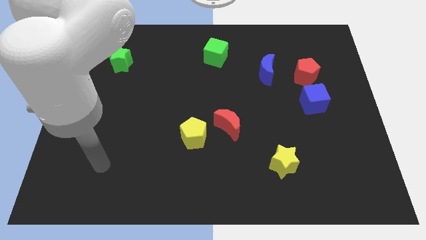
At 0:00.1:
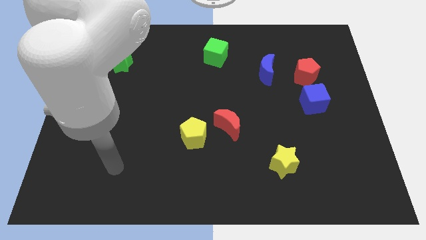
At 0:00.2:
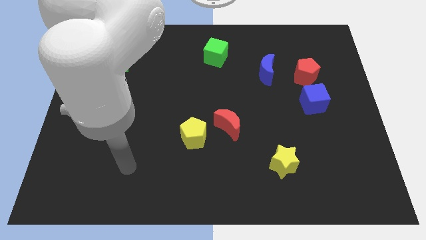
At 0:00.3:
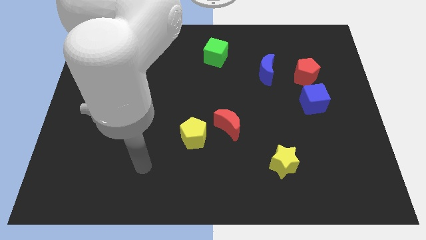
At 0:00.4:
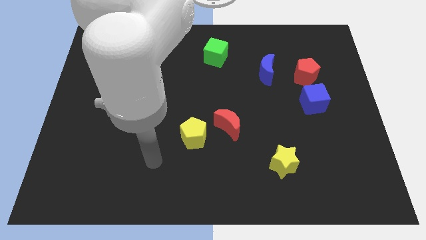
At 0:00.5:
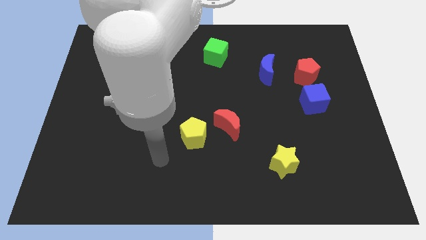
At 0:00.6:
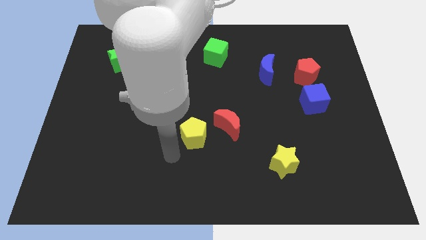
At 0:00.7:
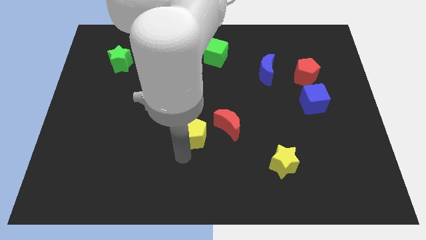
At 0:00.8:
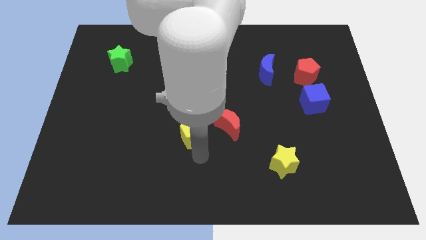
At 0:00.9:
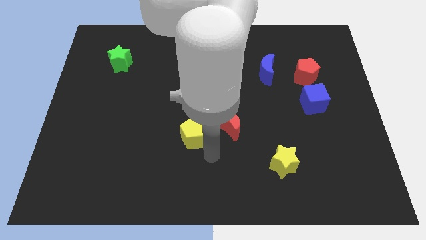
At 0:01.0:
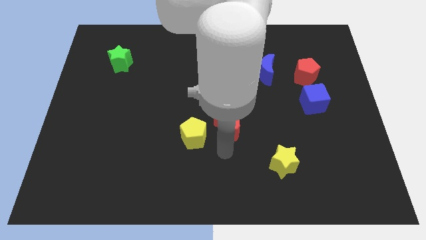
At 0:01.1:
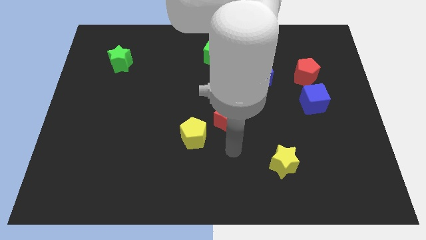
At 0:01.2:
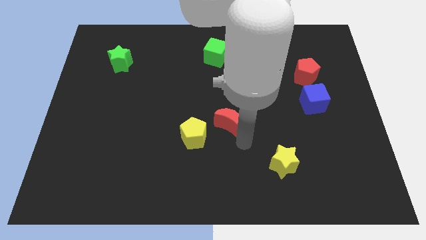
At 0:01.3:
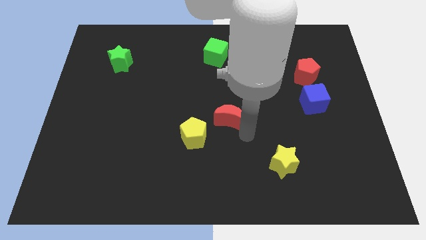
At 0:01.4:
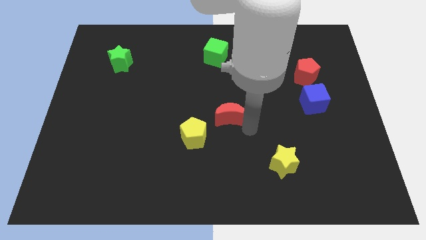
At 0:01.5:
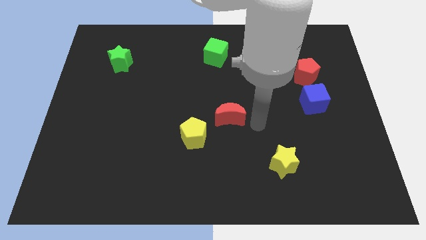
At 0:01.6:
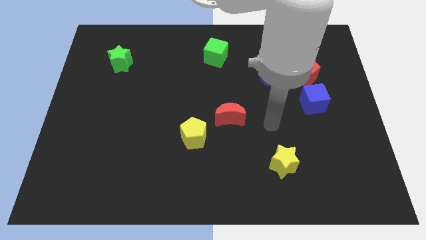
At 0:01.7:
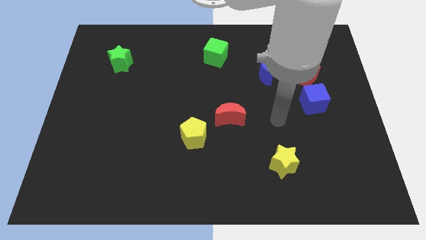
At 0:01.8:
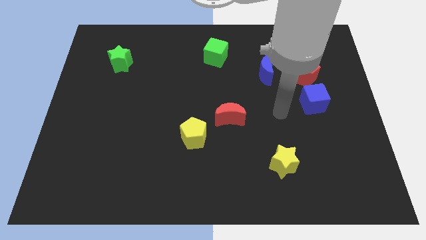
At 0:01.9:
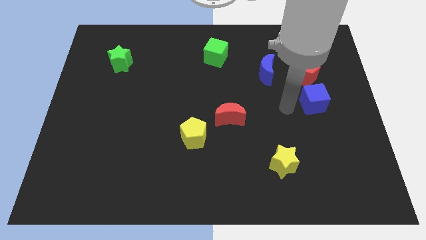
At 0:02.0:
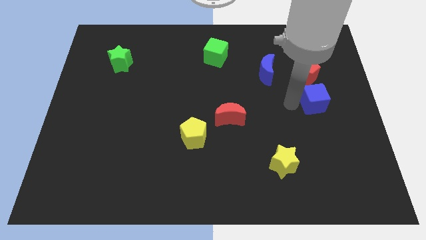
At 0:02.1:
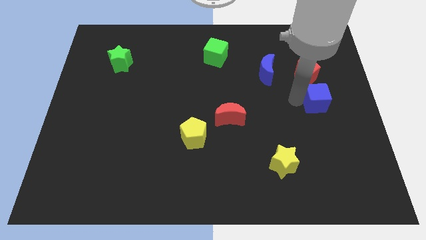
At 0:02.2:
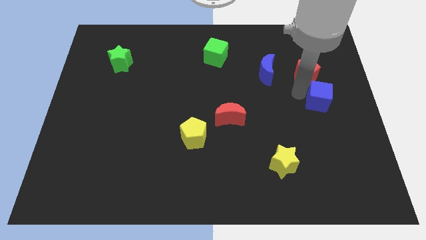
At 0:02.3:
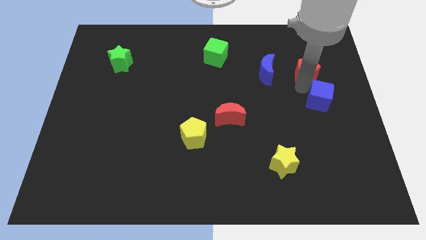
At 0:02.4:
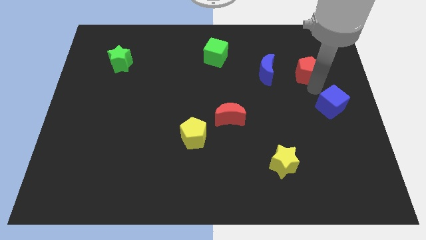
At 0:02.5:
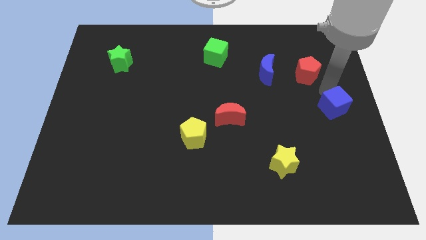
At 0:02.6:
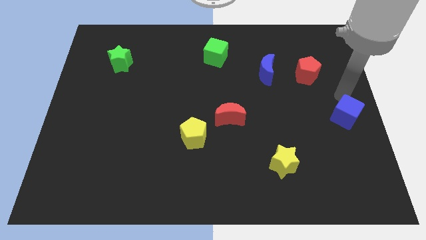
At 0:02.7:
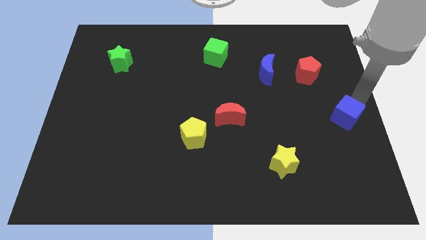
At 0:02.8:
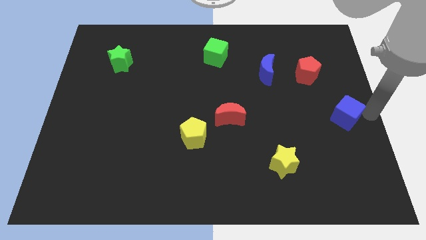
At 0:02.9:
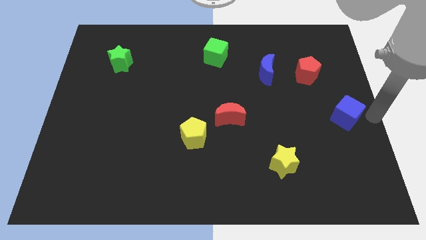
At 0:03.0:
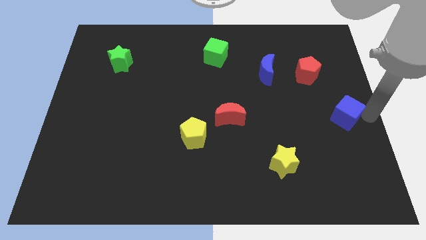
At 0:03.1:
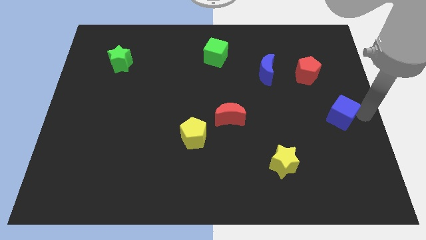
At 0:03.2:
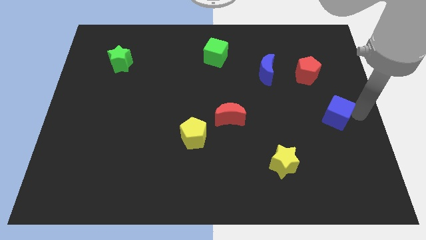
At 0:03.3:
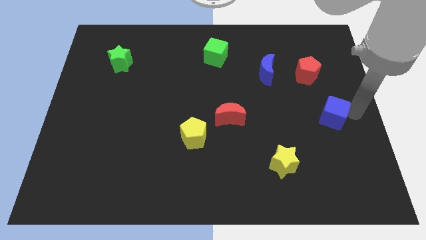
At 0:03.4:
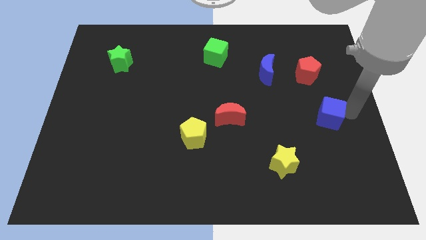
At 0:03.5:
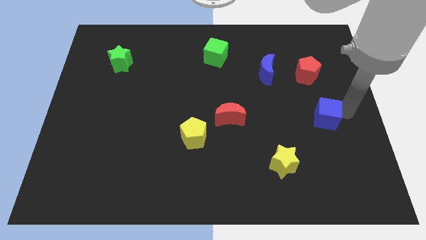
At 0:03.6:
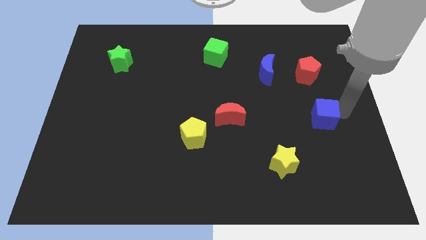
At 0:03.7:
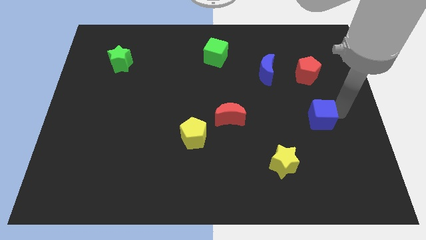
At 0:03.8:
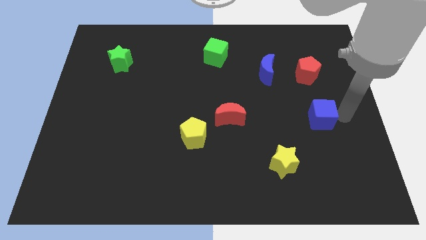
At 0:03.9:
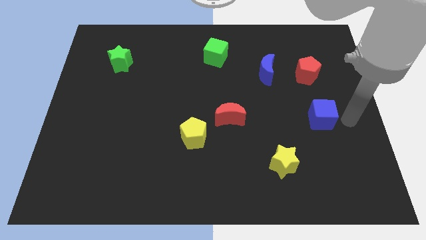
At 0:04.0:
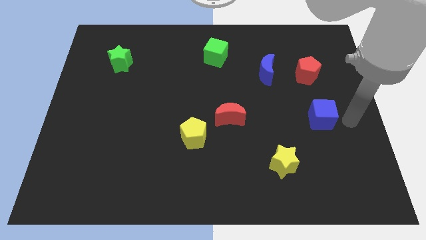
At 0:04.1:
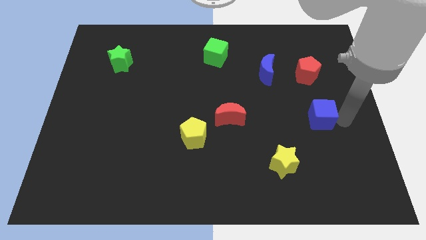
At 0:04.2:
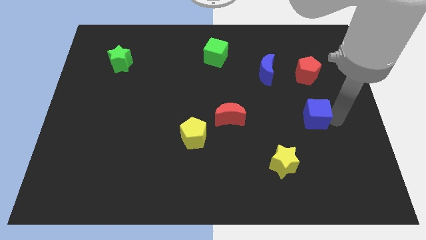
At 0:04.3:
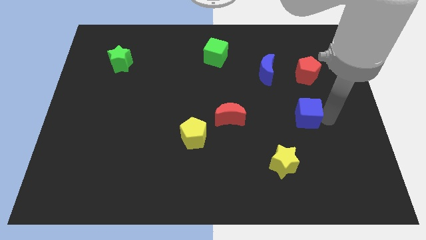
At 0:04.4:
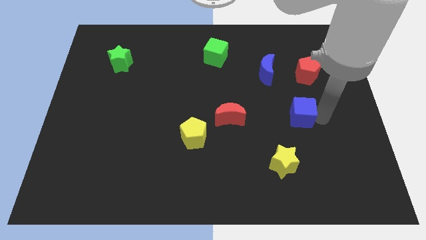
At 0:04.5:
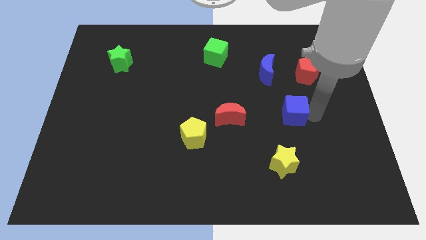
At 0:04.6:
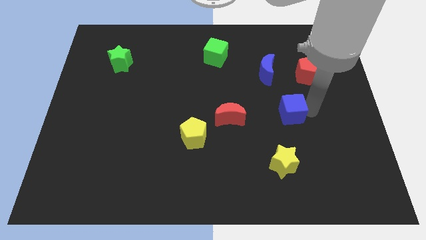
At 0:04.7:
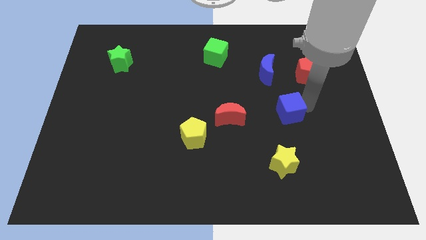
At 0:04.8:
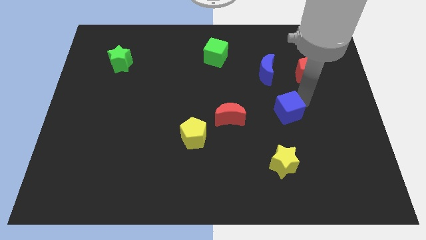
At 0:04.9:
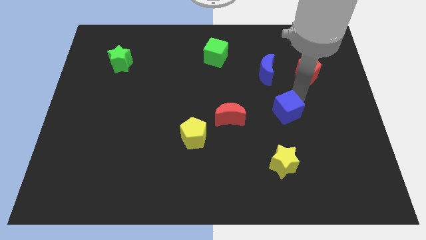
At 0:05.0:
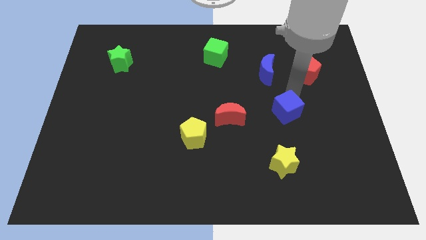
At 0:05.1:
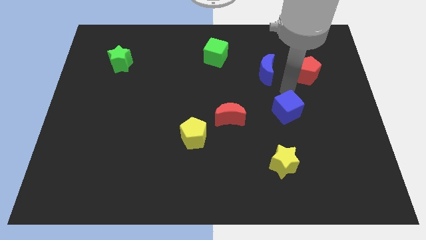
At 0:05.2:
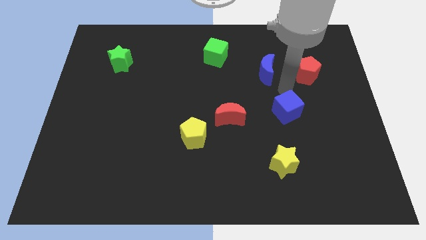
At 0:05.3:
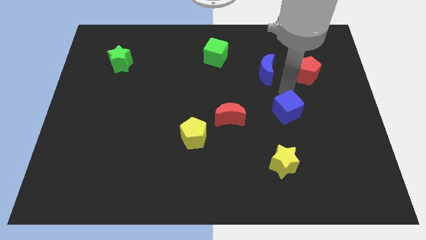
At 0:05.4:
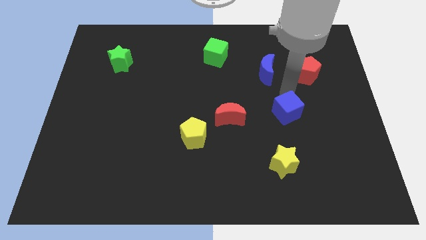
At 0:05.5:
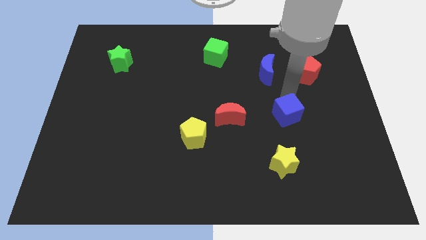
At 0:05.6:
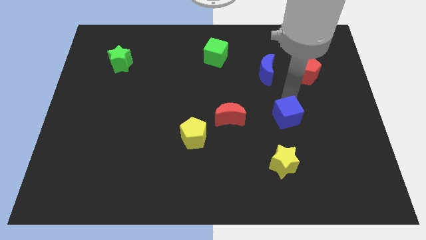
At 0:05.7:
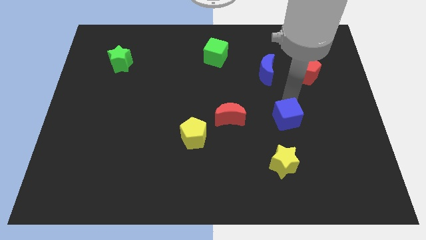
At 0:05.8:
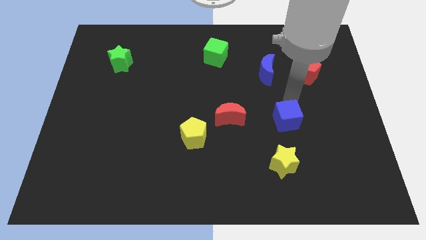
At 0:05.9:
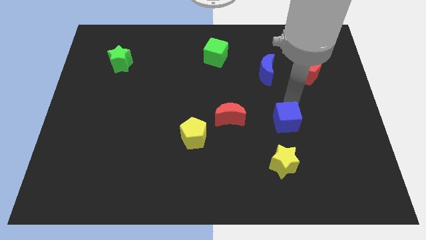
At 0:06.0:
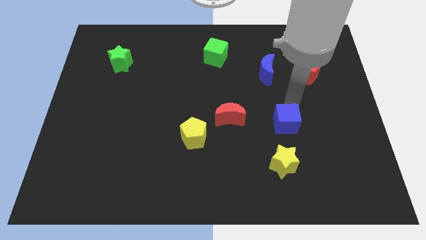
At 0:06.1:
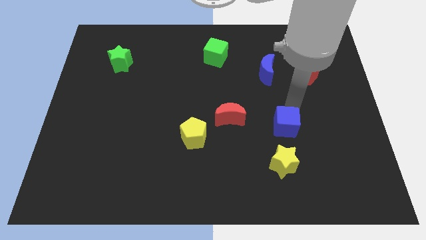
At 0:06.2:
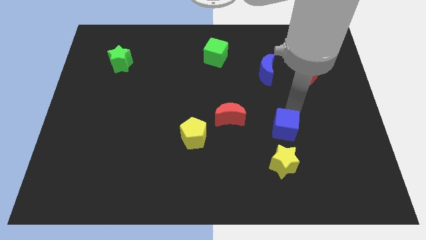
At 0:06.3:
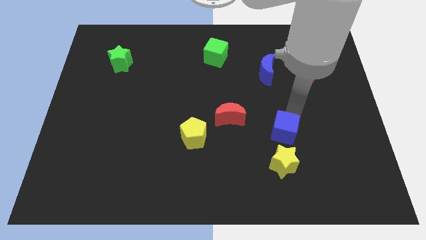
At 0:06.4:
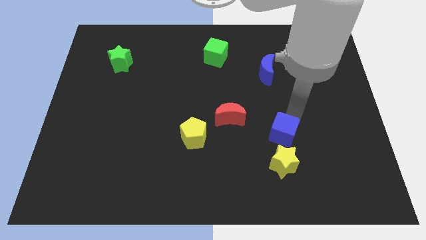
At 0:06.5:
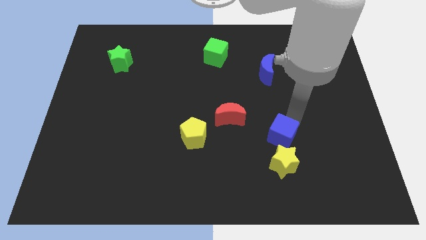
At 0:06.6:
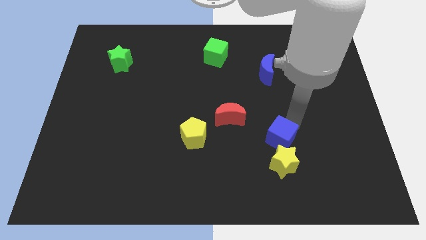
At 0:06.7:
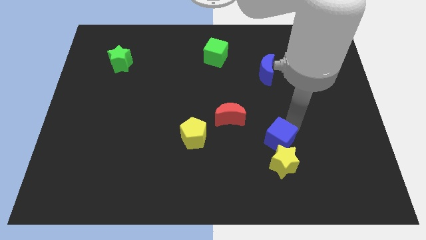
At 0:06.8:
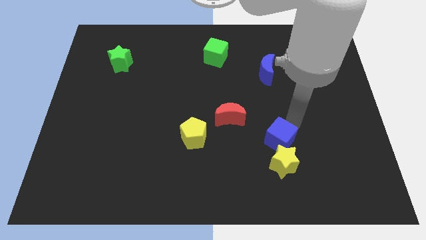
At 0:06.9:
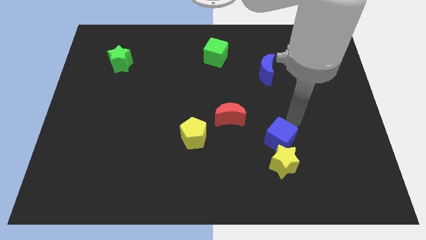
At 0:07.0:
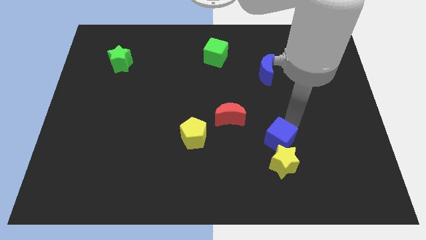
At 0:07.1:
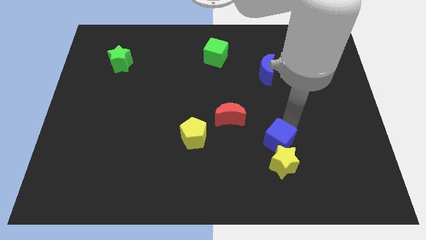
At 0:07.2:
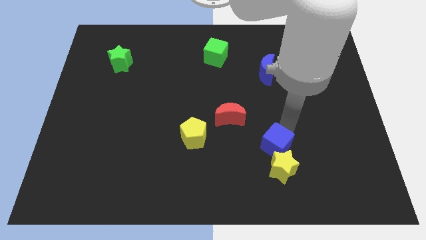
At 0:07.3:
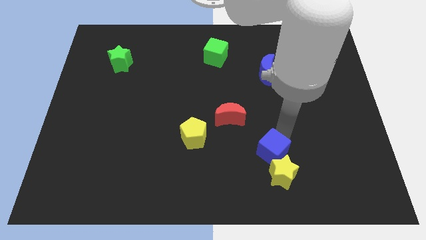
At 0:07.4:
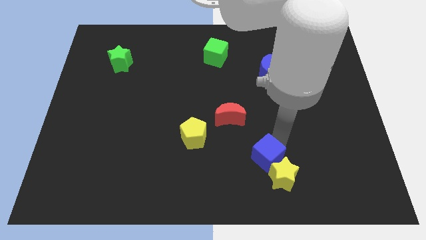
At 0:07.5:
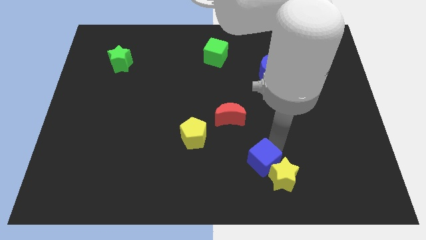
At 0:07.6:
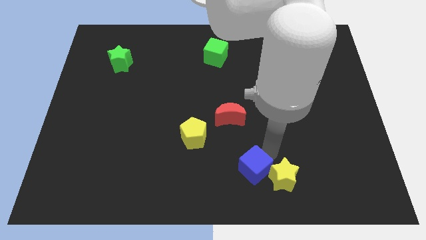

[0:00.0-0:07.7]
slide the blue cube to the bottom side

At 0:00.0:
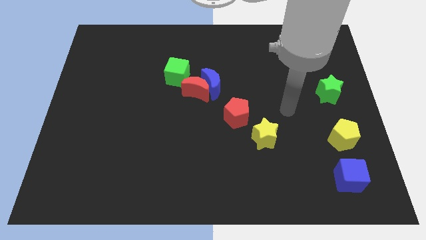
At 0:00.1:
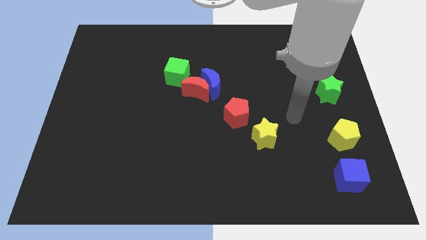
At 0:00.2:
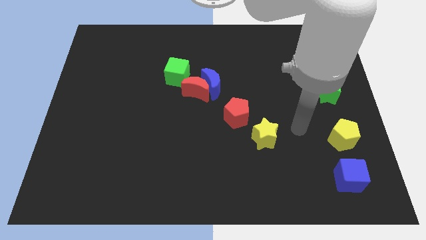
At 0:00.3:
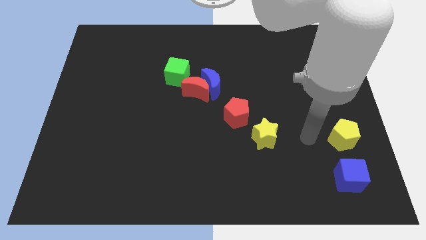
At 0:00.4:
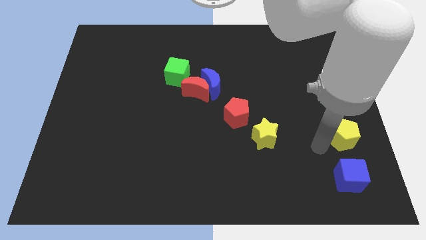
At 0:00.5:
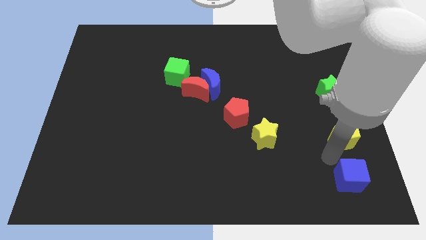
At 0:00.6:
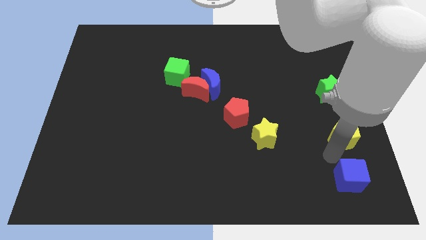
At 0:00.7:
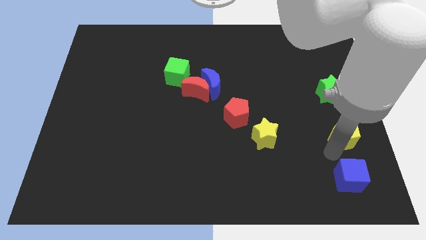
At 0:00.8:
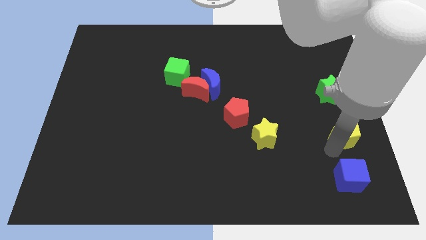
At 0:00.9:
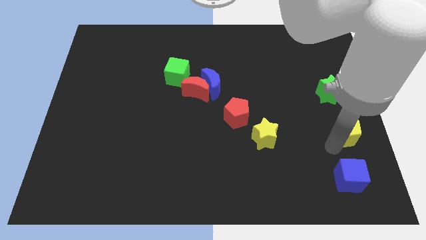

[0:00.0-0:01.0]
put the yellow pentagon to the right side
